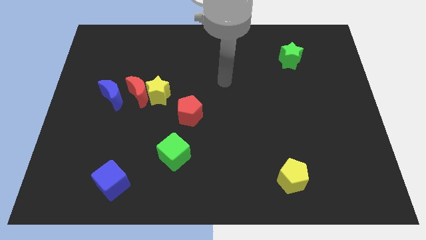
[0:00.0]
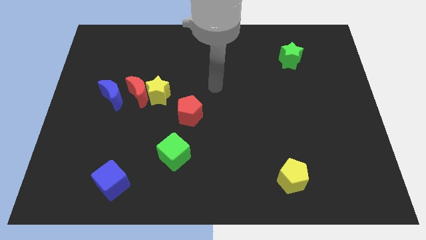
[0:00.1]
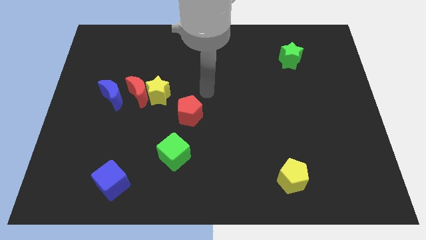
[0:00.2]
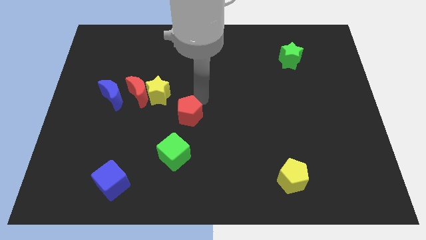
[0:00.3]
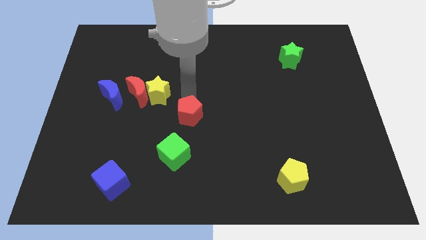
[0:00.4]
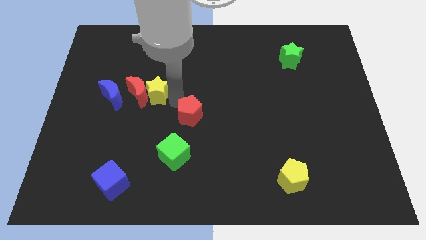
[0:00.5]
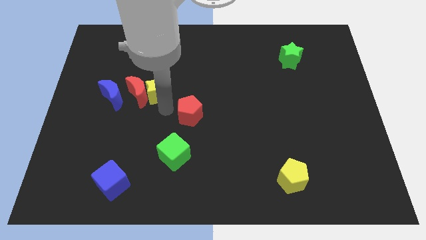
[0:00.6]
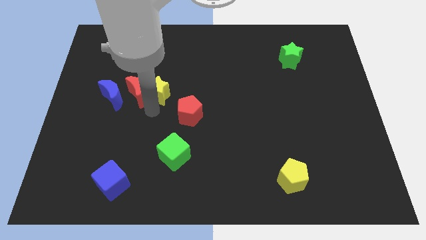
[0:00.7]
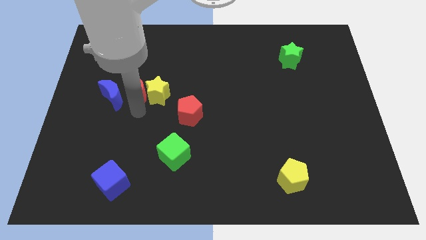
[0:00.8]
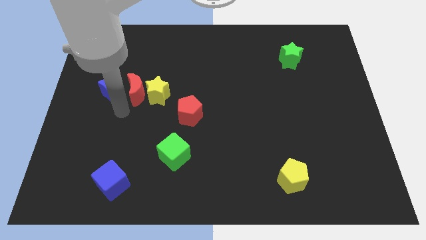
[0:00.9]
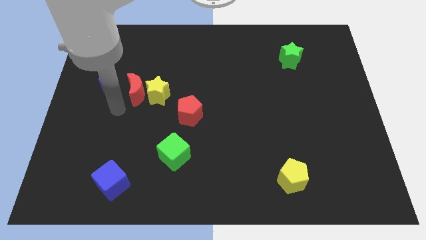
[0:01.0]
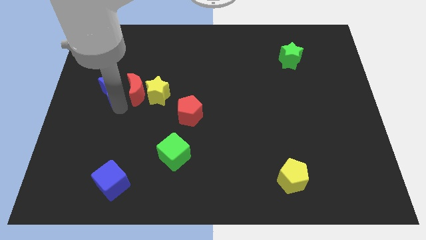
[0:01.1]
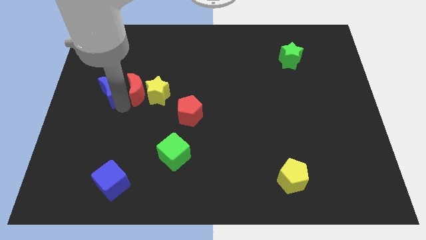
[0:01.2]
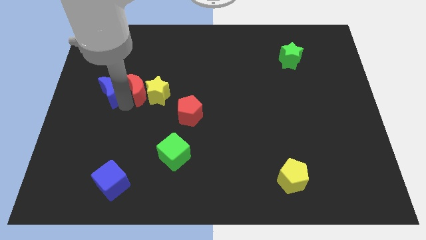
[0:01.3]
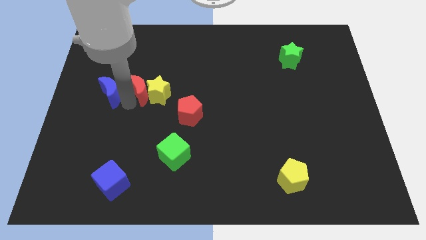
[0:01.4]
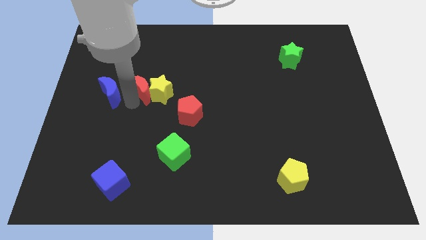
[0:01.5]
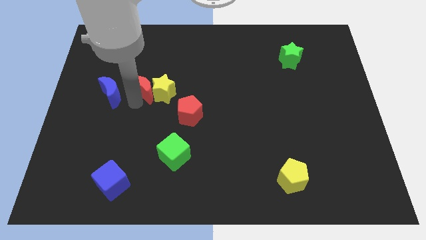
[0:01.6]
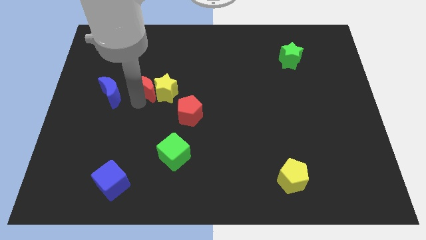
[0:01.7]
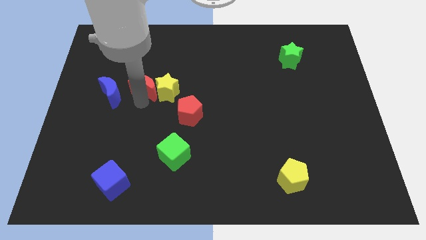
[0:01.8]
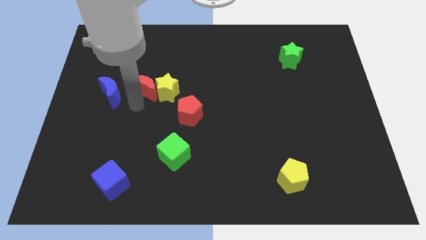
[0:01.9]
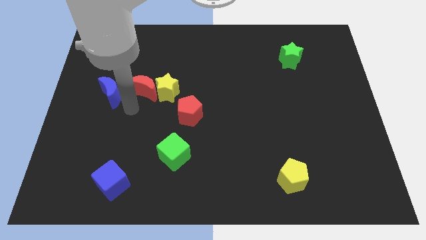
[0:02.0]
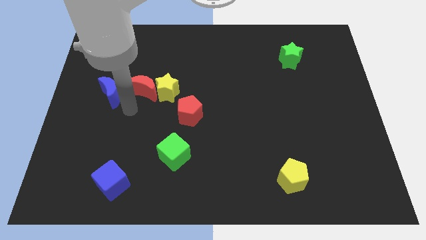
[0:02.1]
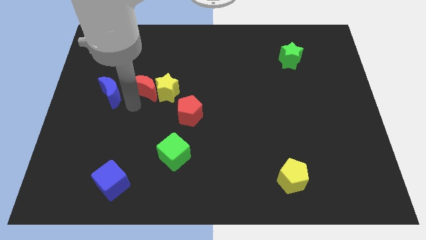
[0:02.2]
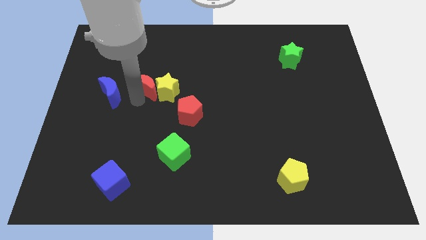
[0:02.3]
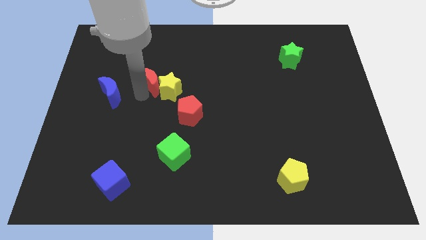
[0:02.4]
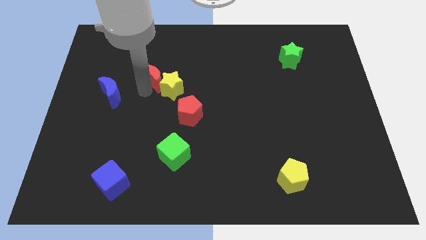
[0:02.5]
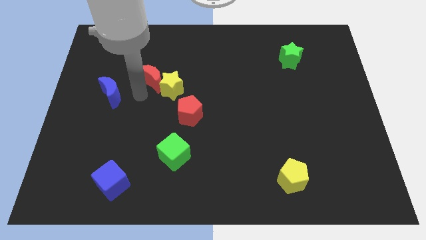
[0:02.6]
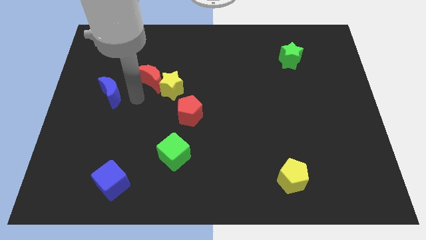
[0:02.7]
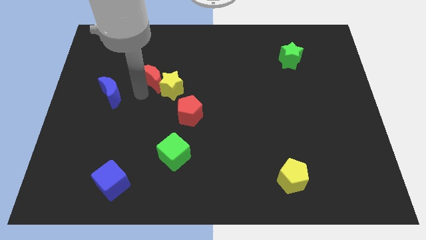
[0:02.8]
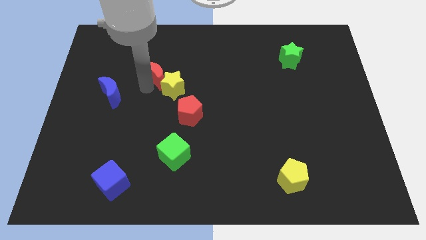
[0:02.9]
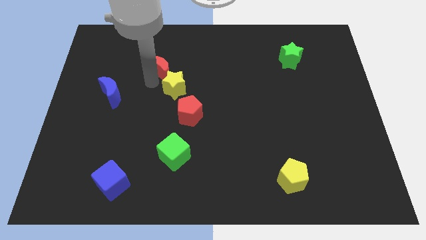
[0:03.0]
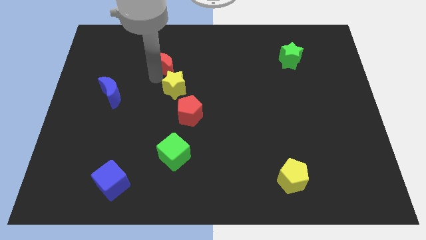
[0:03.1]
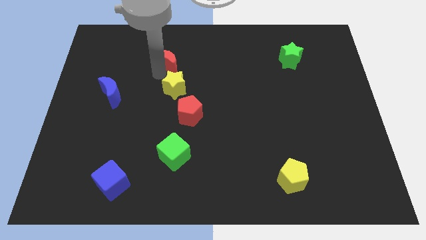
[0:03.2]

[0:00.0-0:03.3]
pull the red moon apart from the yellow star and blue moon

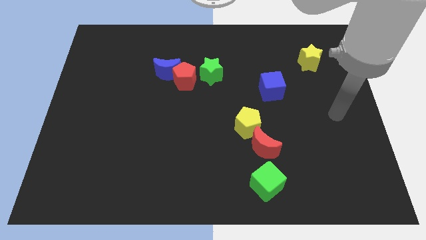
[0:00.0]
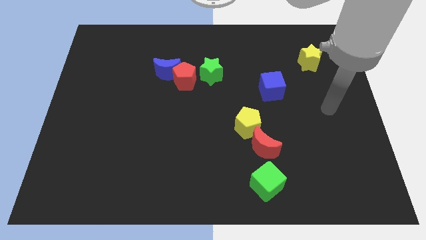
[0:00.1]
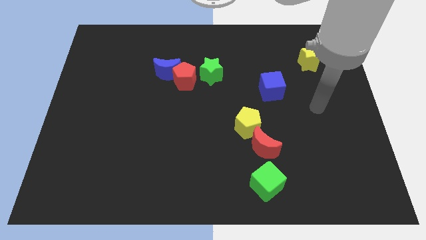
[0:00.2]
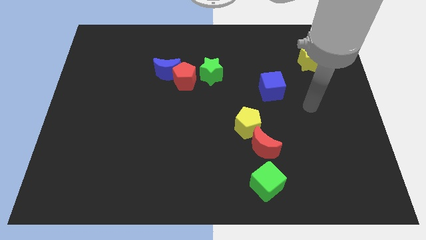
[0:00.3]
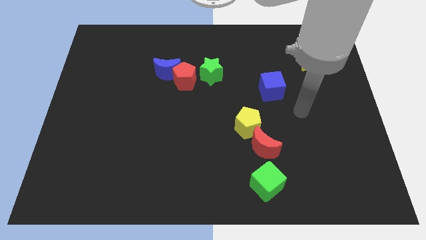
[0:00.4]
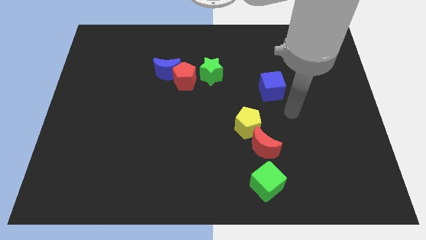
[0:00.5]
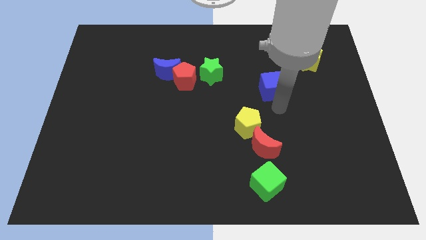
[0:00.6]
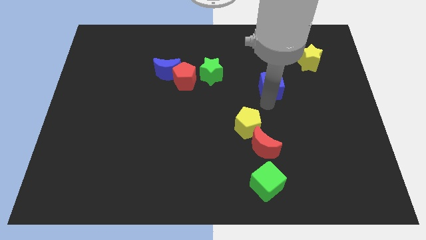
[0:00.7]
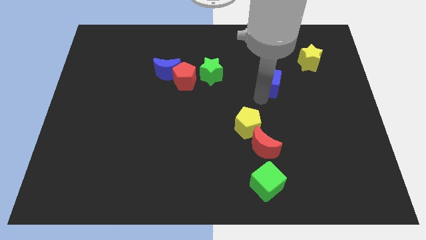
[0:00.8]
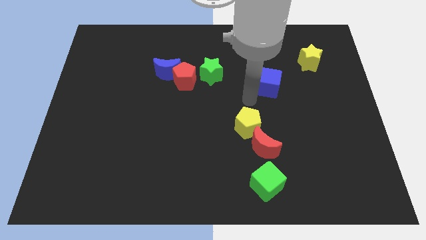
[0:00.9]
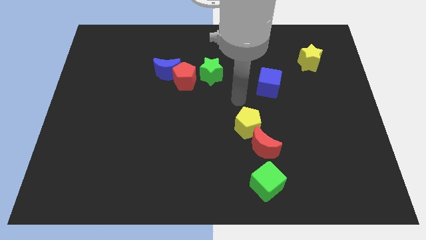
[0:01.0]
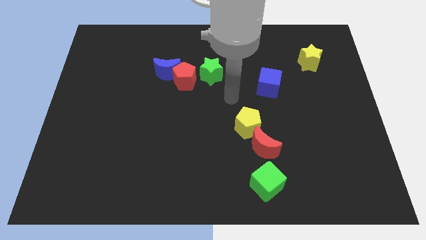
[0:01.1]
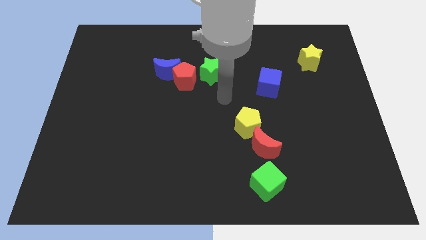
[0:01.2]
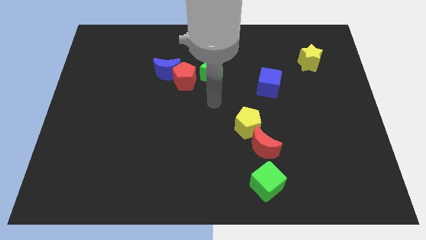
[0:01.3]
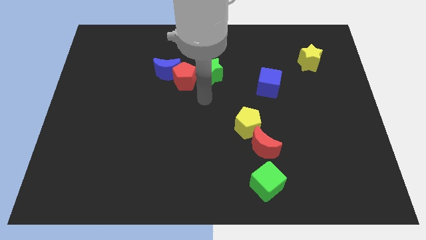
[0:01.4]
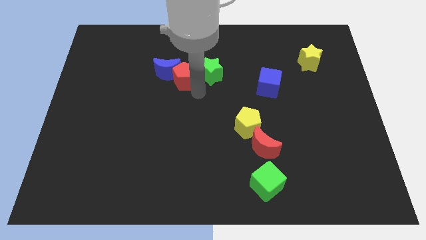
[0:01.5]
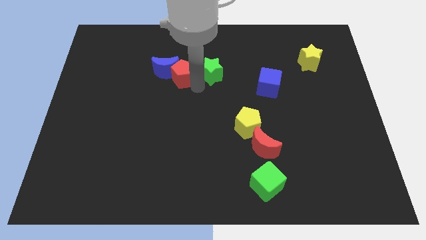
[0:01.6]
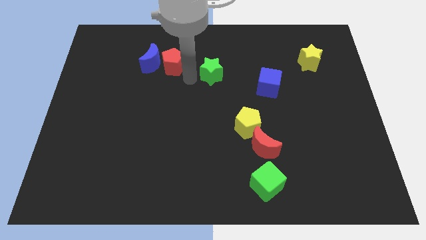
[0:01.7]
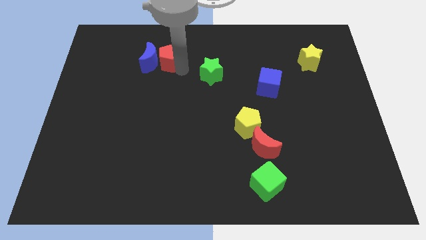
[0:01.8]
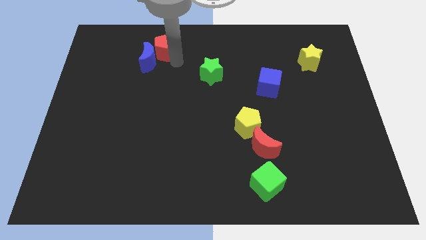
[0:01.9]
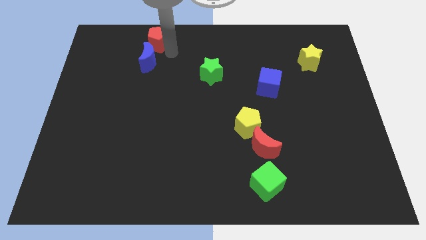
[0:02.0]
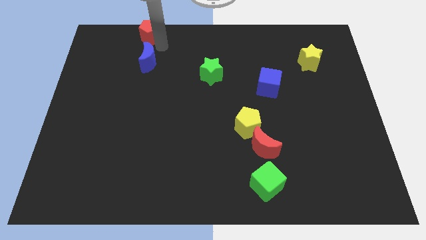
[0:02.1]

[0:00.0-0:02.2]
separate the blue moon from the red pentagon

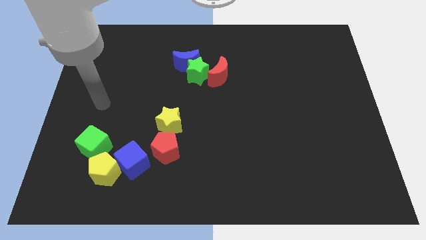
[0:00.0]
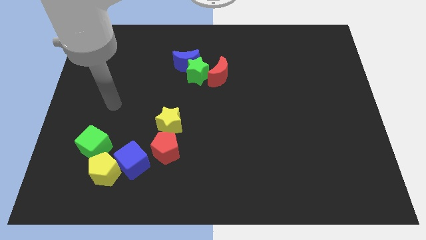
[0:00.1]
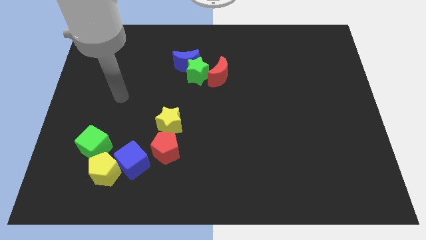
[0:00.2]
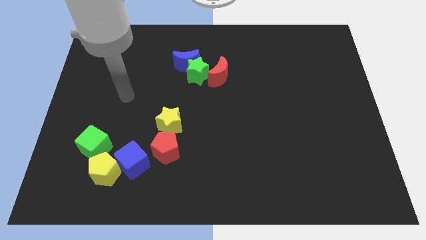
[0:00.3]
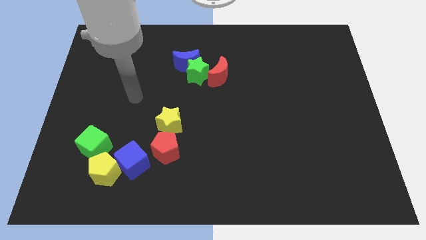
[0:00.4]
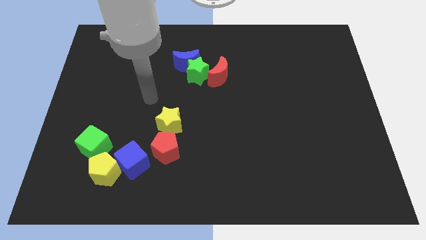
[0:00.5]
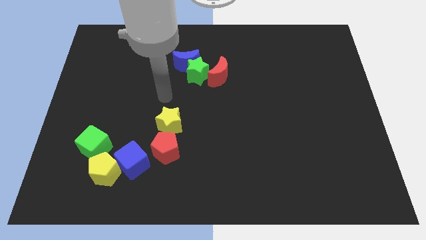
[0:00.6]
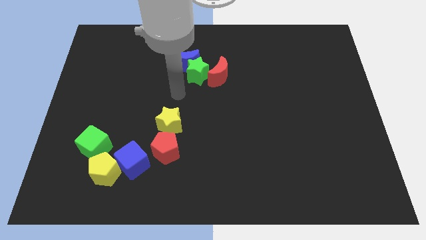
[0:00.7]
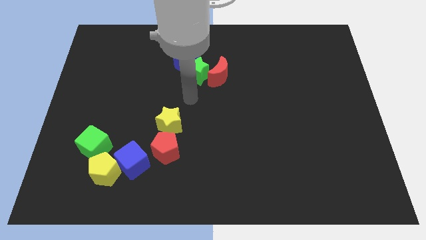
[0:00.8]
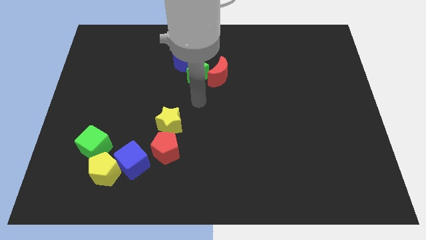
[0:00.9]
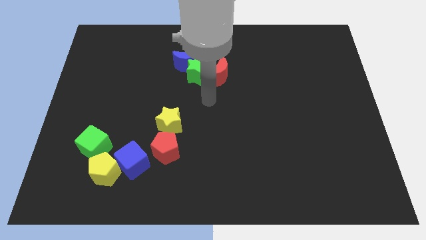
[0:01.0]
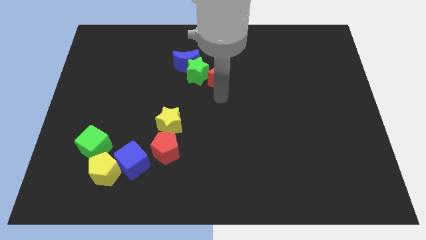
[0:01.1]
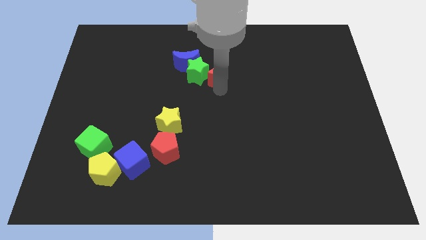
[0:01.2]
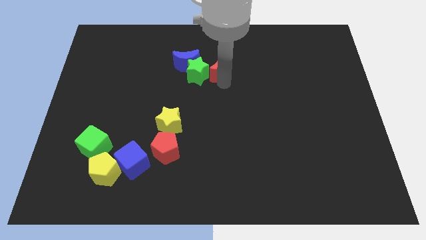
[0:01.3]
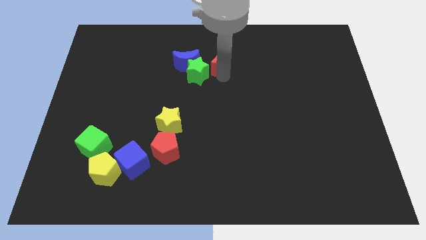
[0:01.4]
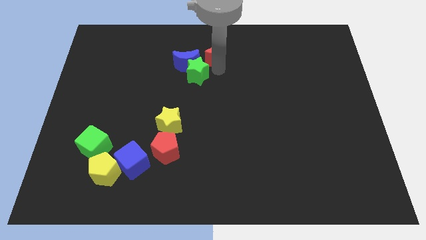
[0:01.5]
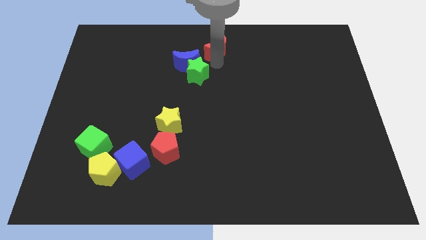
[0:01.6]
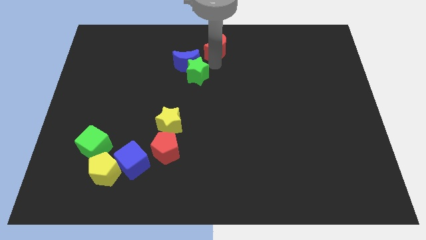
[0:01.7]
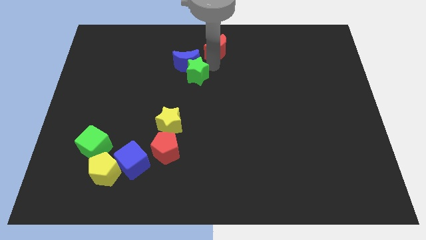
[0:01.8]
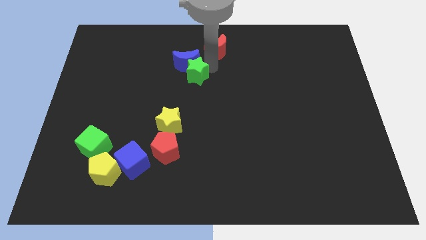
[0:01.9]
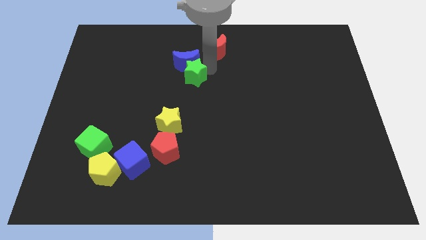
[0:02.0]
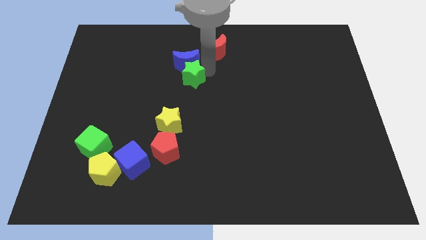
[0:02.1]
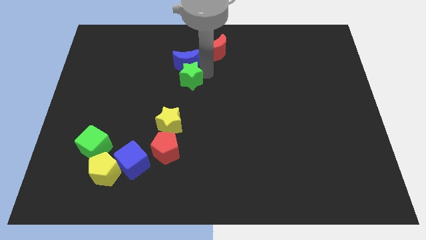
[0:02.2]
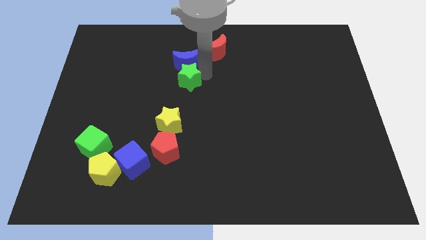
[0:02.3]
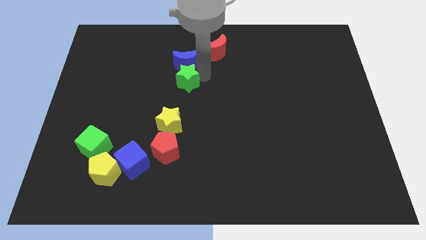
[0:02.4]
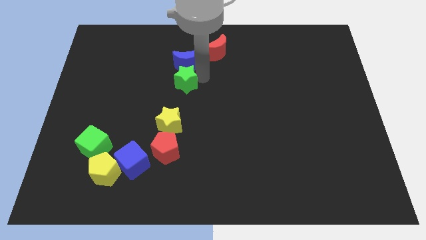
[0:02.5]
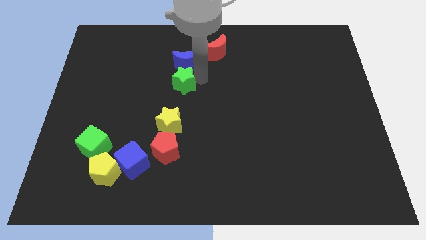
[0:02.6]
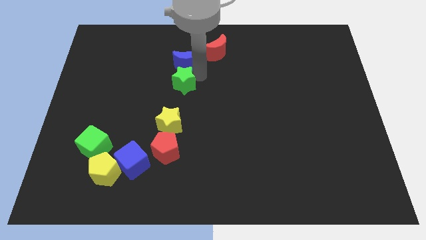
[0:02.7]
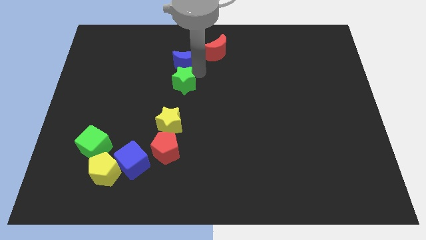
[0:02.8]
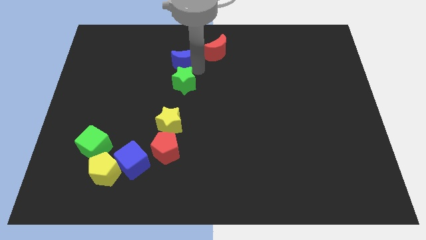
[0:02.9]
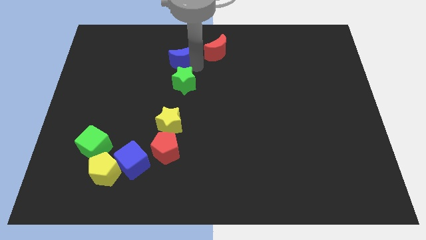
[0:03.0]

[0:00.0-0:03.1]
separate the green star from the blue moon and red moon

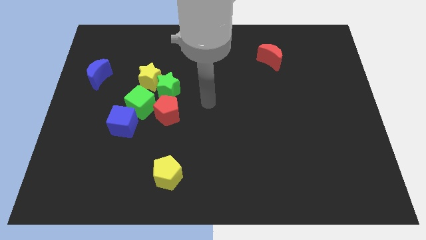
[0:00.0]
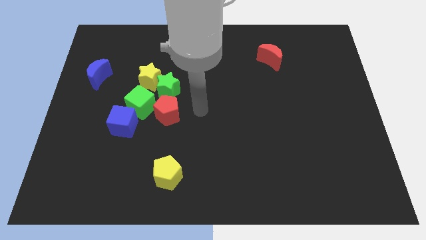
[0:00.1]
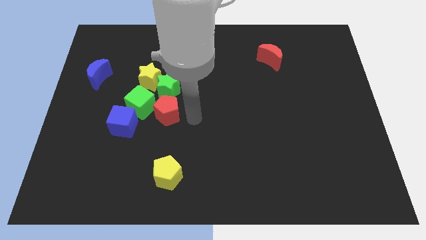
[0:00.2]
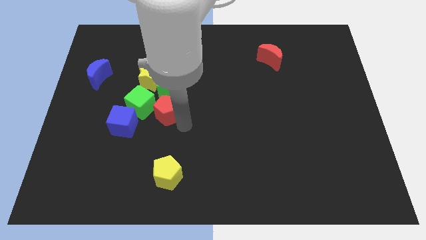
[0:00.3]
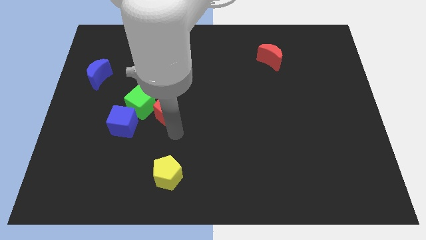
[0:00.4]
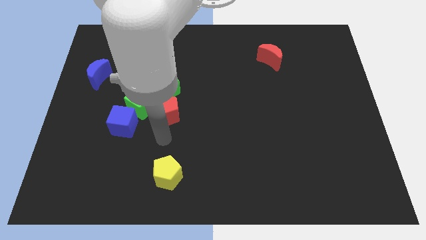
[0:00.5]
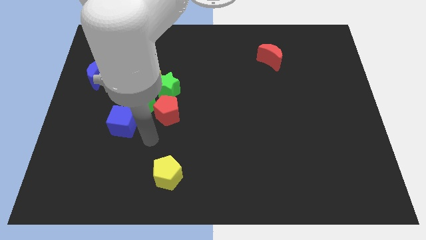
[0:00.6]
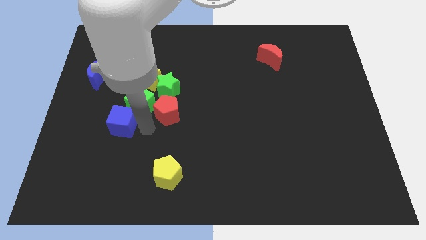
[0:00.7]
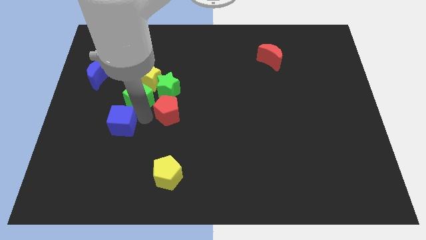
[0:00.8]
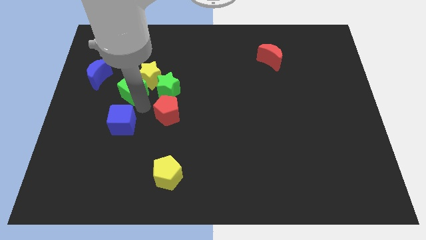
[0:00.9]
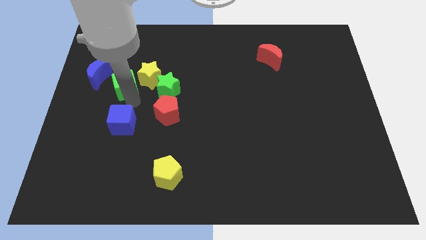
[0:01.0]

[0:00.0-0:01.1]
separate the blue cube from the green cube
